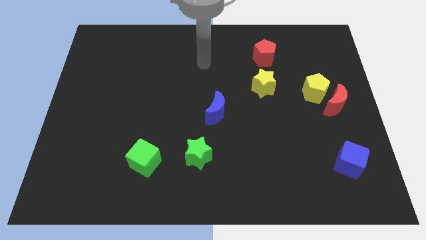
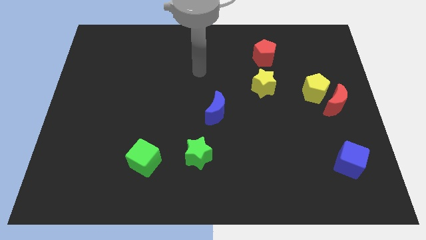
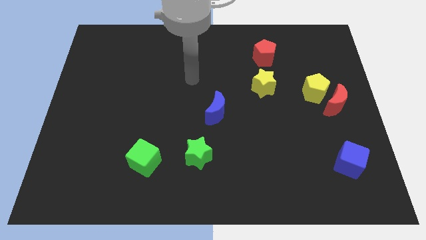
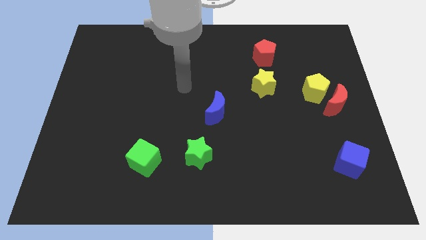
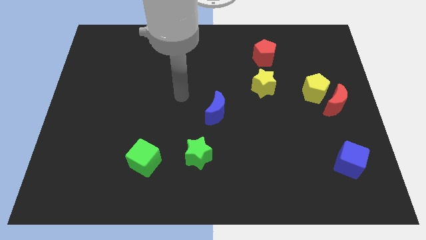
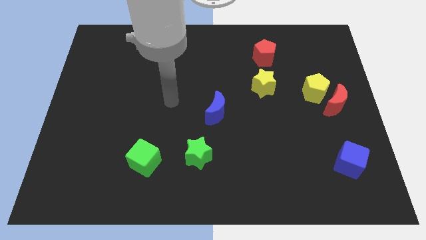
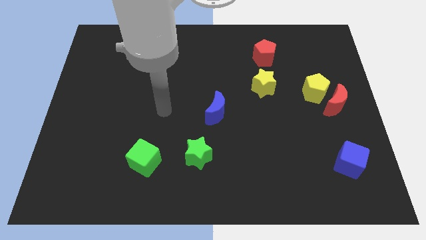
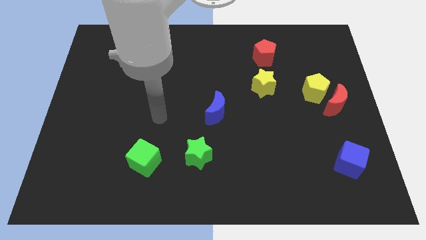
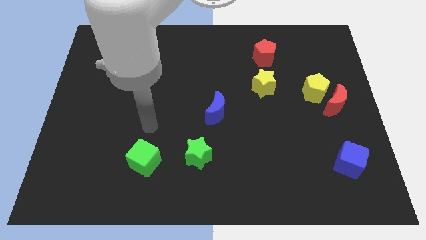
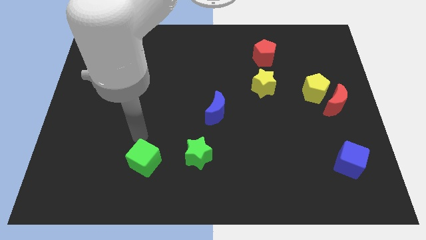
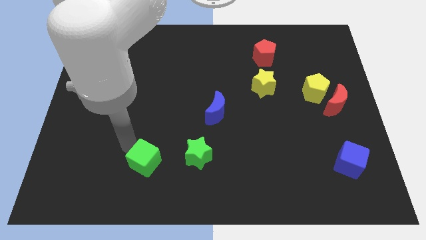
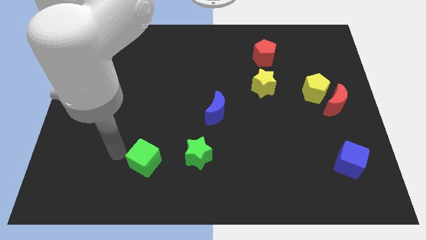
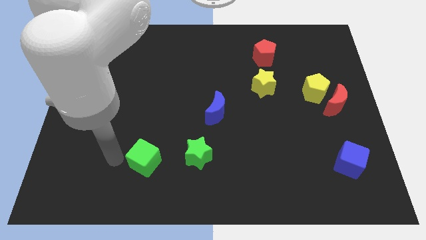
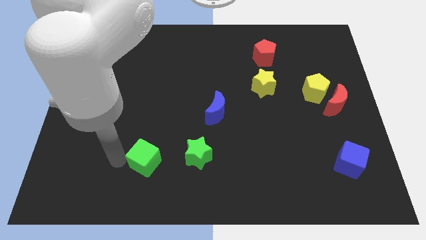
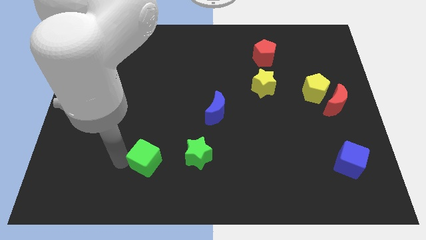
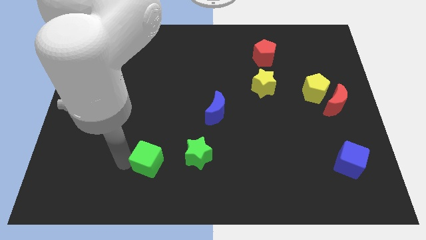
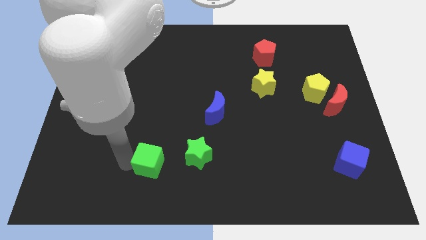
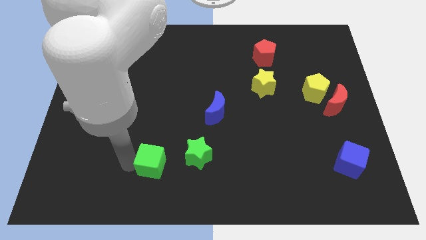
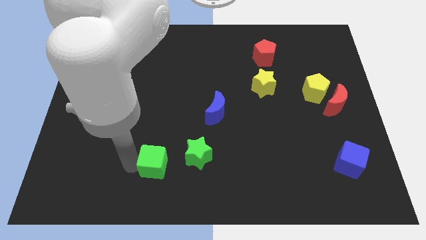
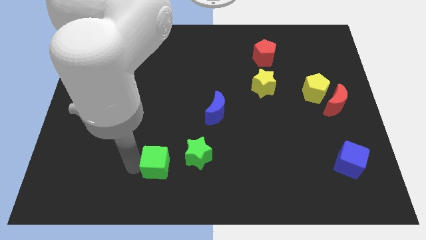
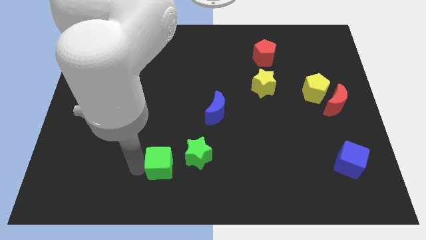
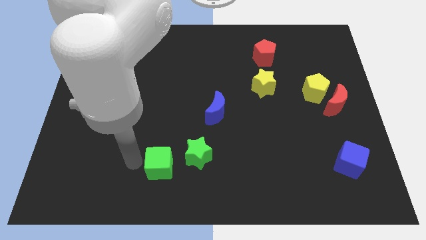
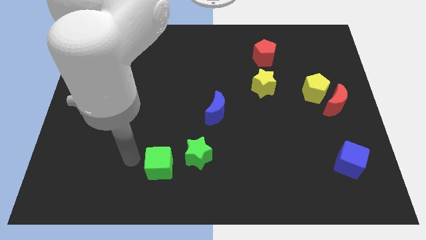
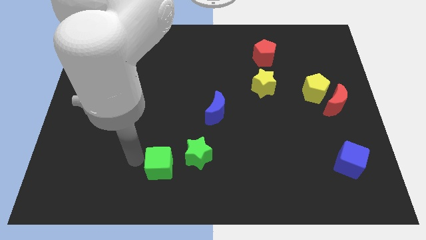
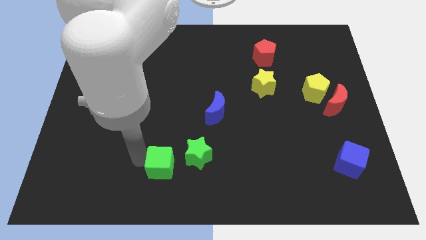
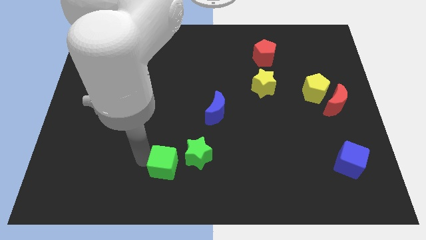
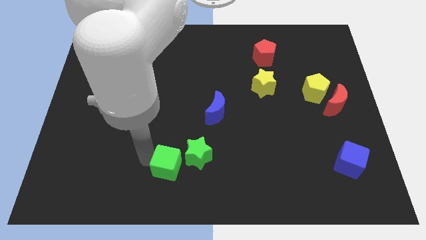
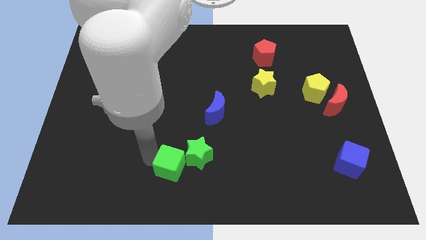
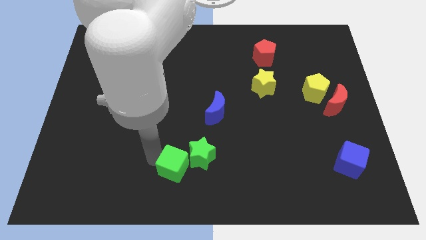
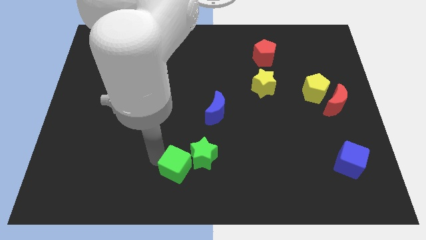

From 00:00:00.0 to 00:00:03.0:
slide the green cube slightly to the right

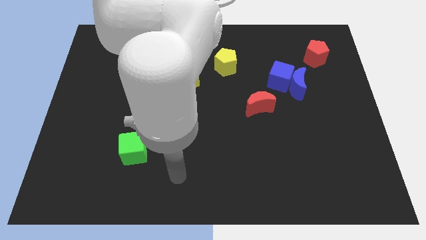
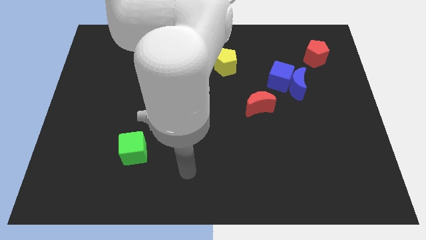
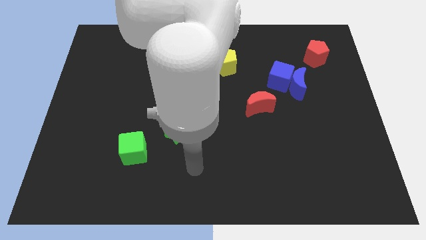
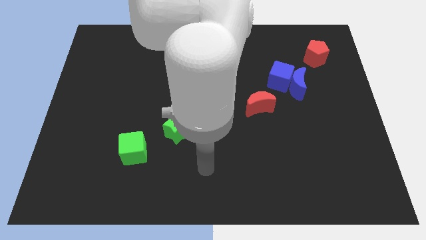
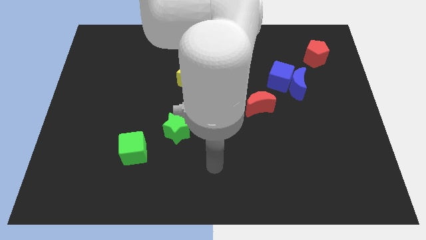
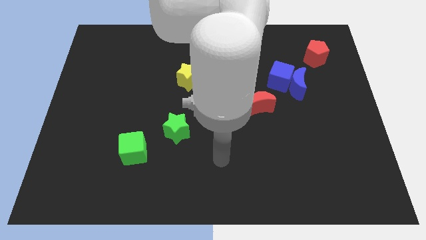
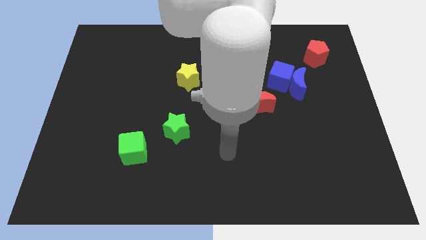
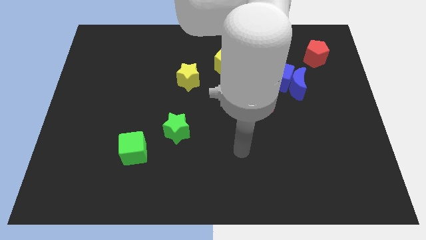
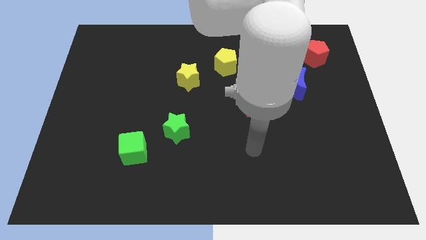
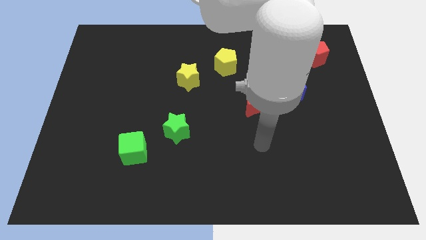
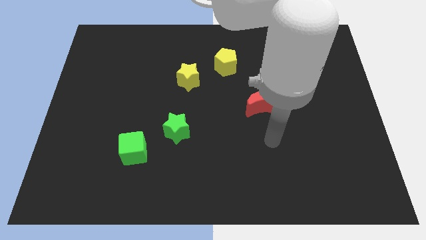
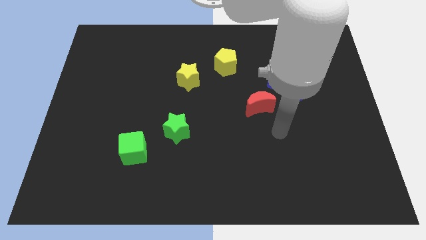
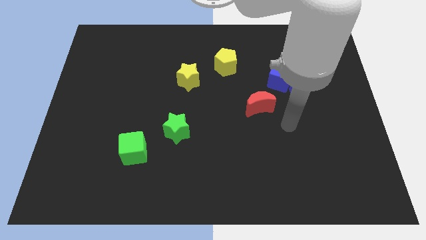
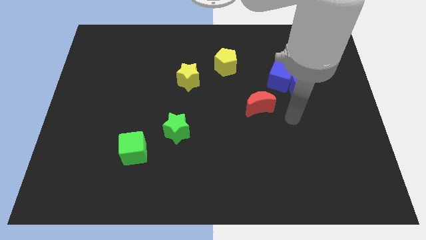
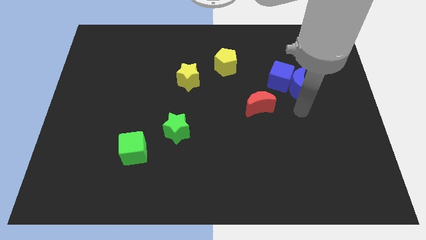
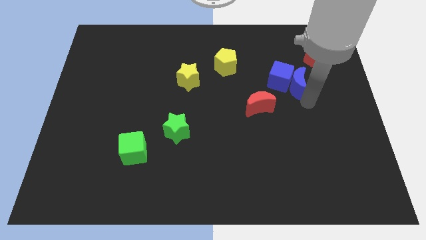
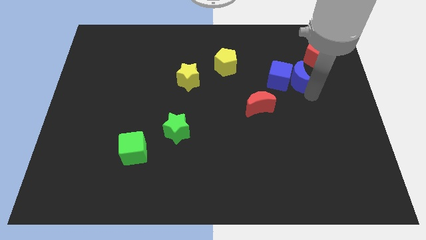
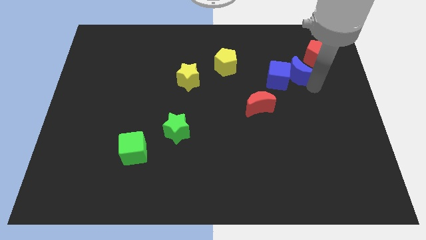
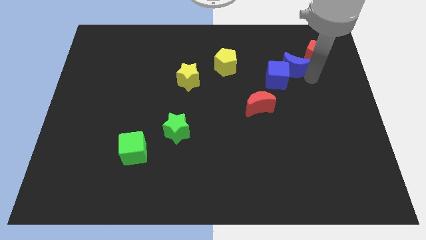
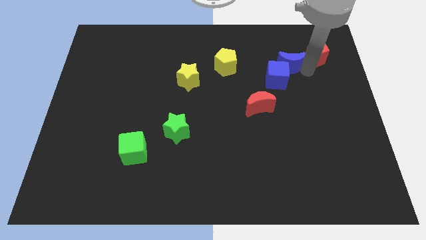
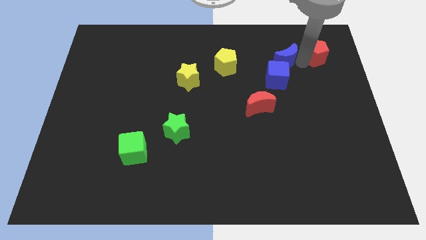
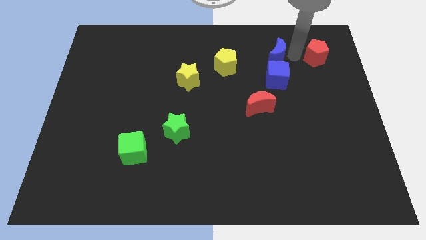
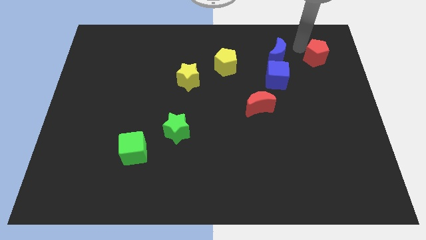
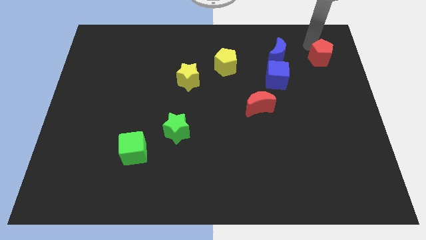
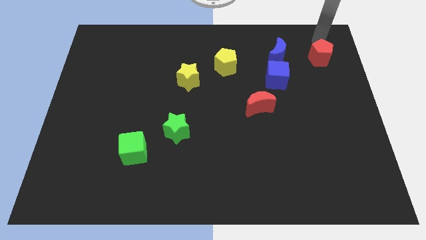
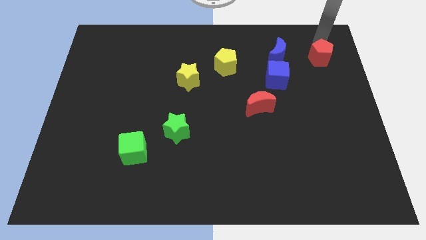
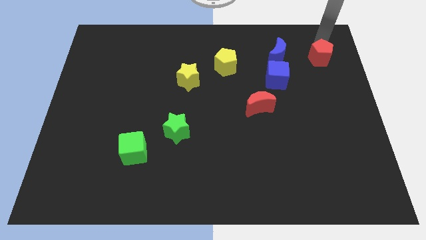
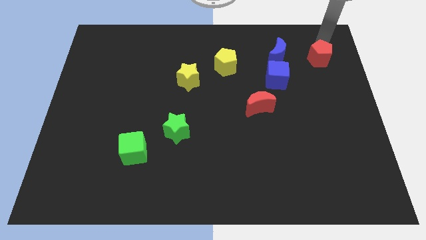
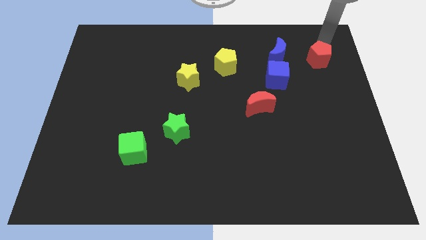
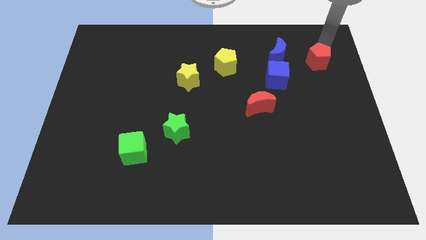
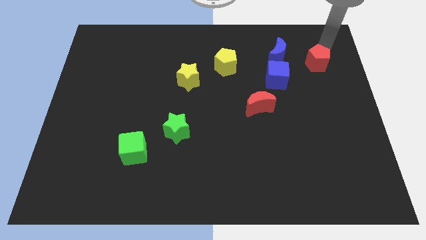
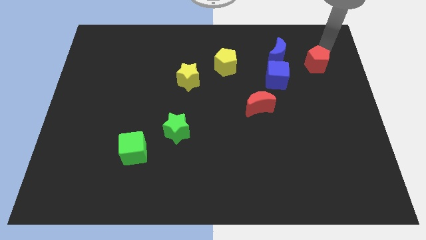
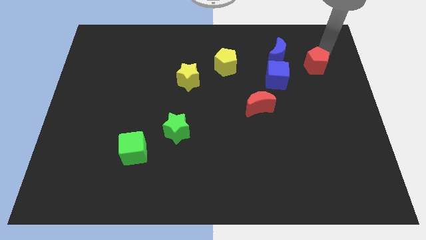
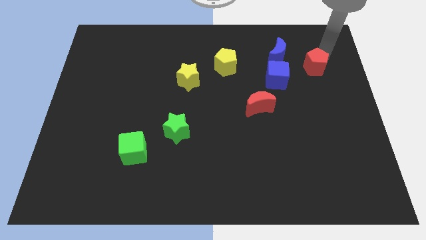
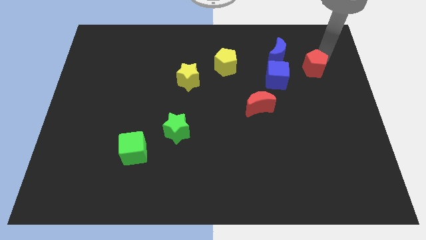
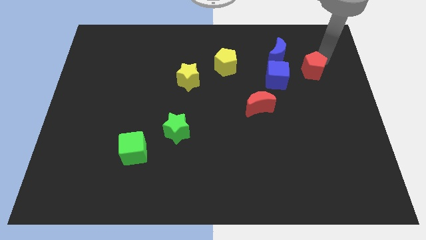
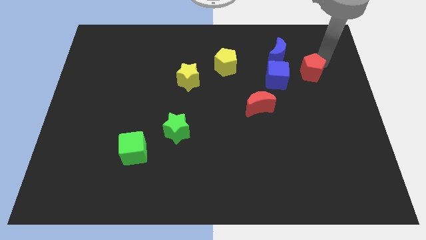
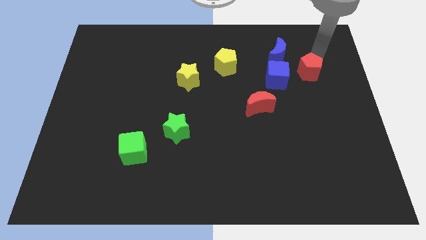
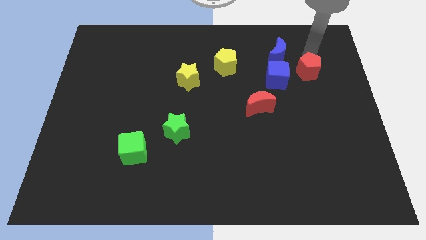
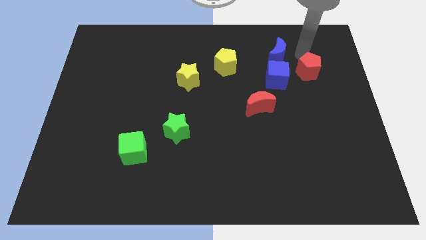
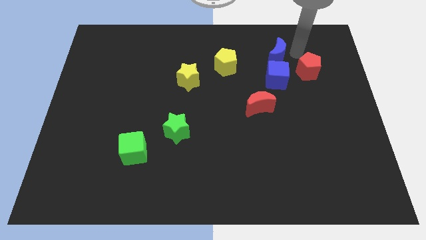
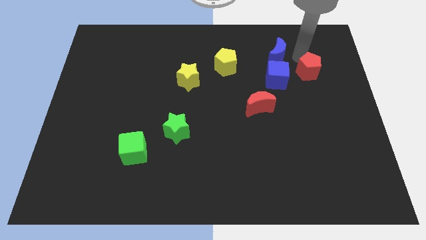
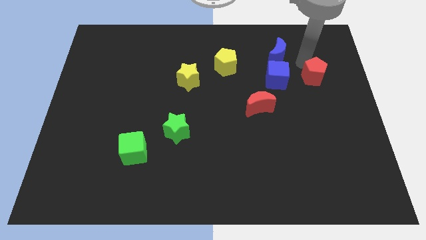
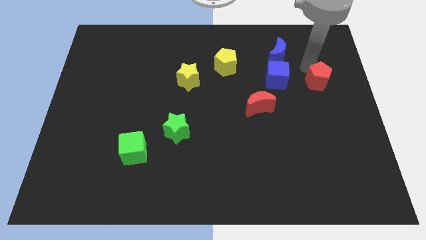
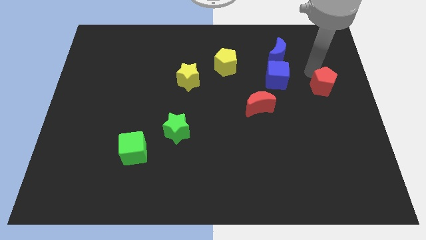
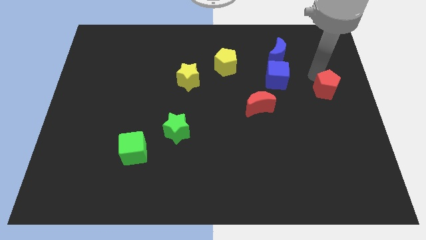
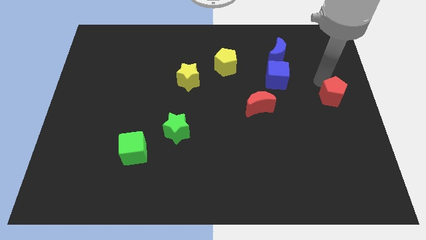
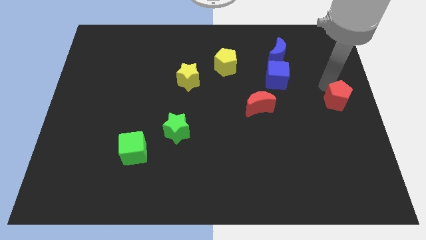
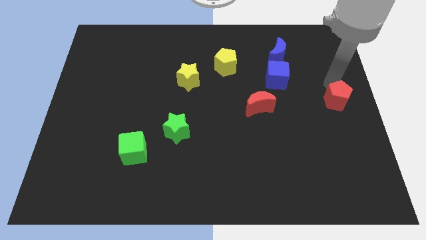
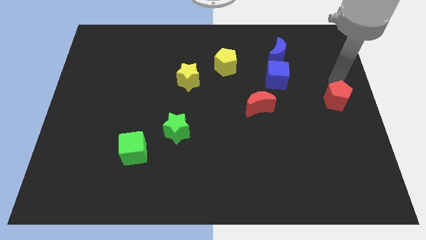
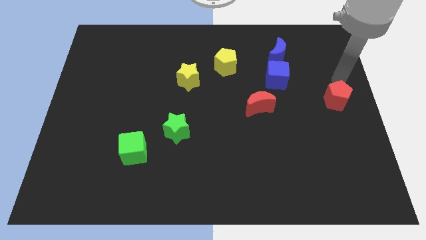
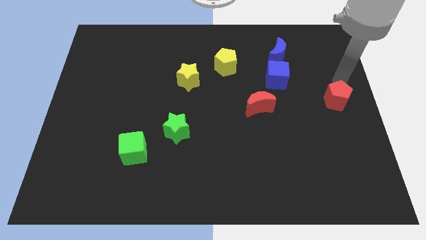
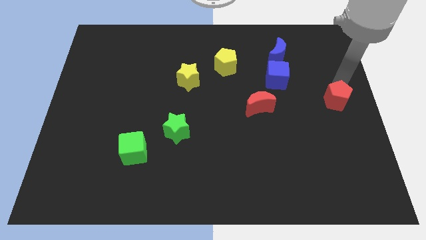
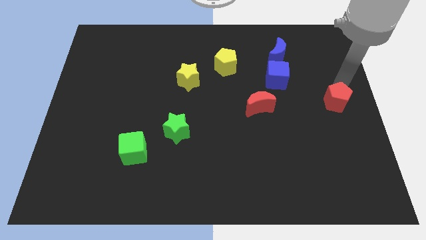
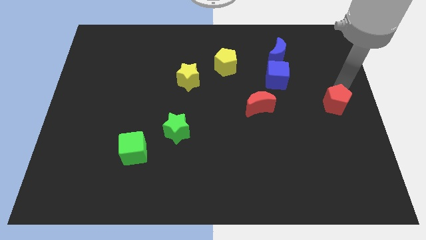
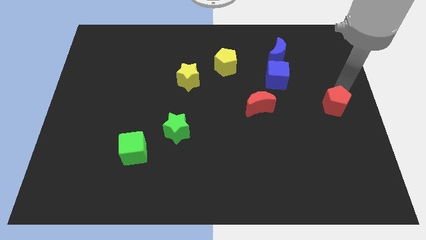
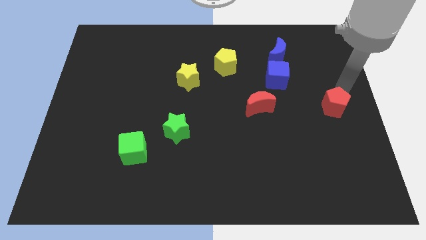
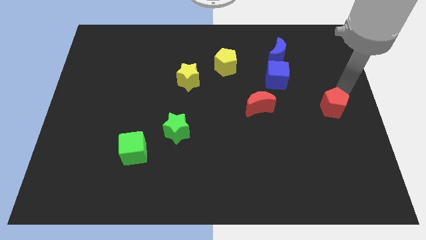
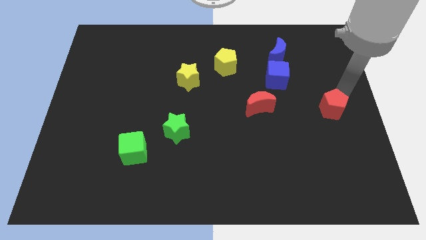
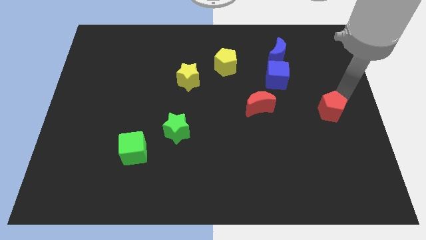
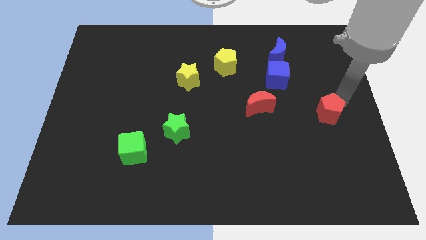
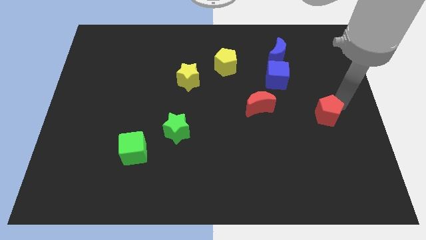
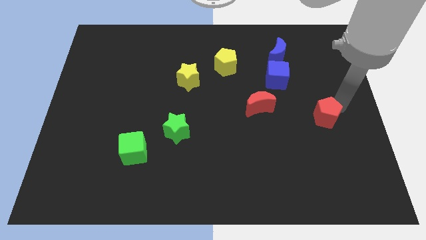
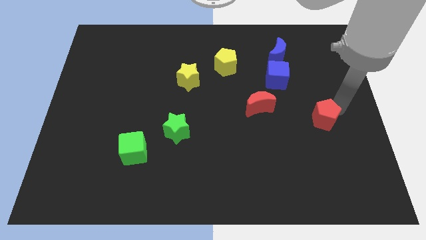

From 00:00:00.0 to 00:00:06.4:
slide the red pentagon downwards
